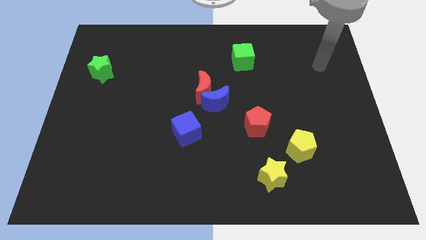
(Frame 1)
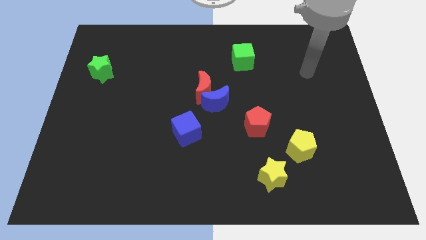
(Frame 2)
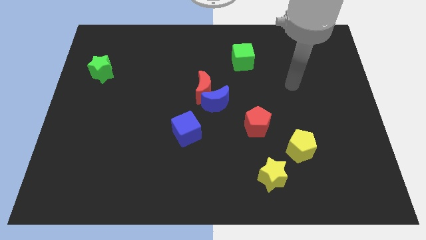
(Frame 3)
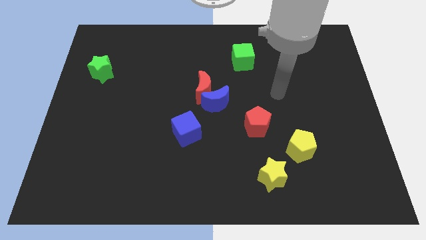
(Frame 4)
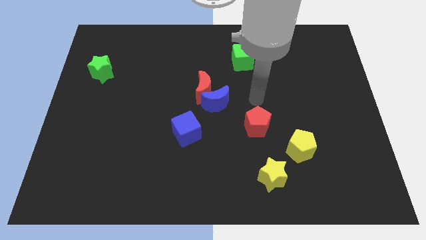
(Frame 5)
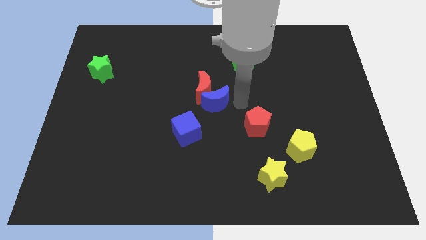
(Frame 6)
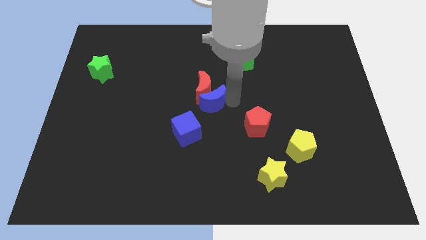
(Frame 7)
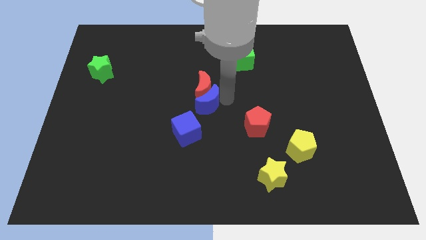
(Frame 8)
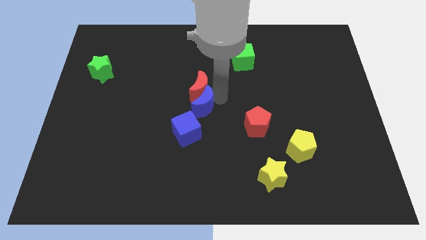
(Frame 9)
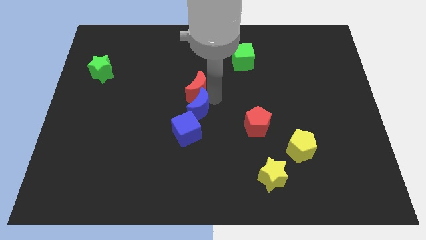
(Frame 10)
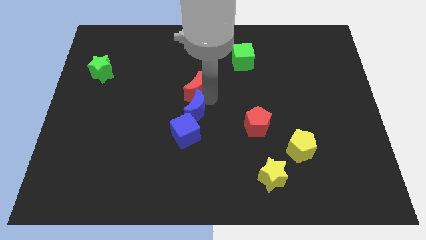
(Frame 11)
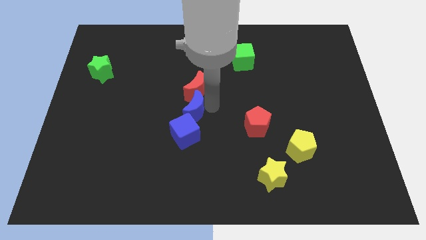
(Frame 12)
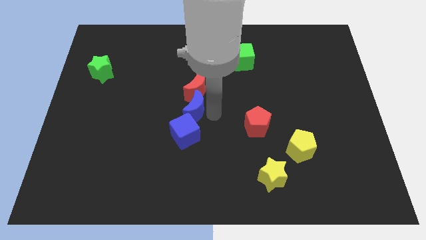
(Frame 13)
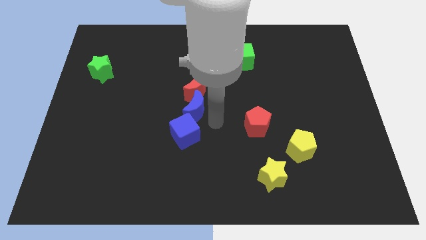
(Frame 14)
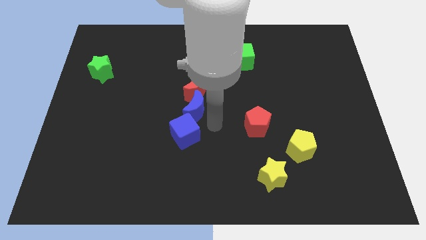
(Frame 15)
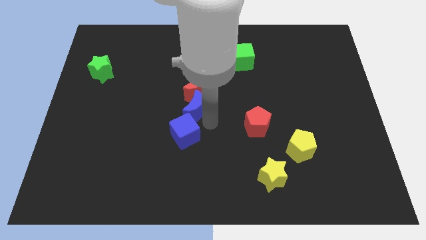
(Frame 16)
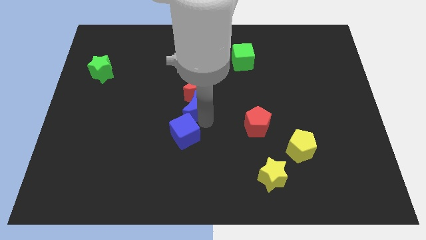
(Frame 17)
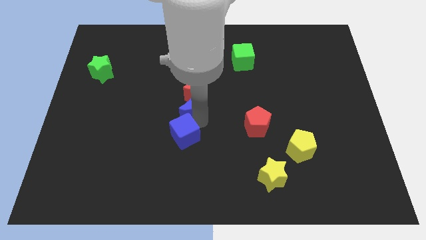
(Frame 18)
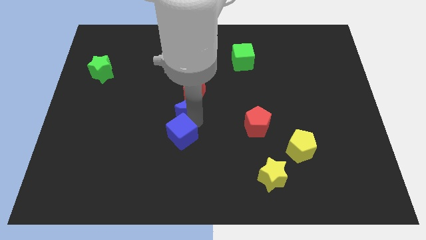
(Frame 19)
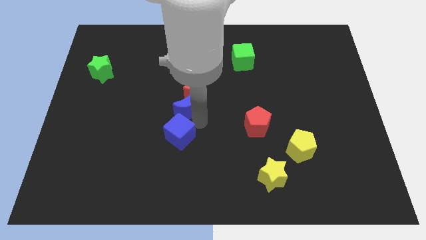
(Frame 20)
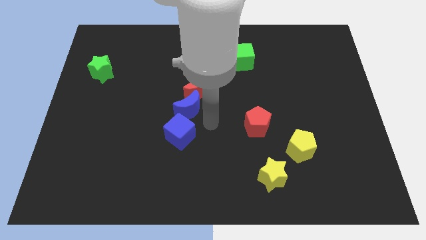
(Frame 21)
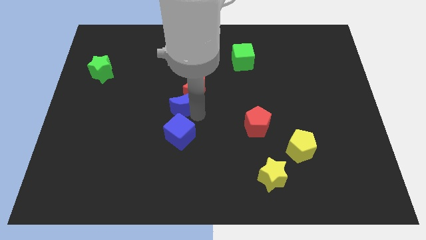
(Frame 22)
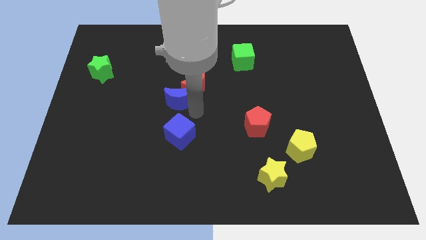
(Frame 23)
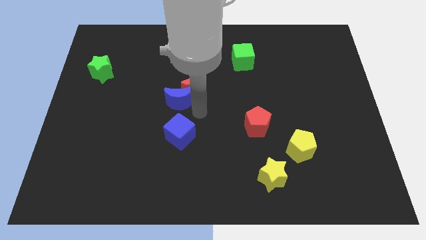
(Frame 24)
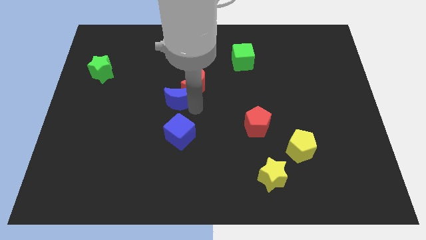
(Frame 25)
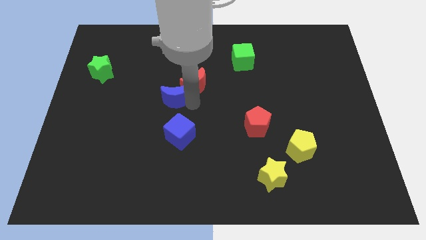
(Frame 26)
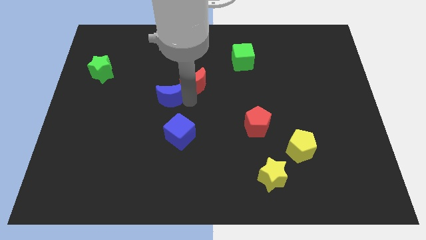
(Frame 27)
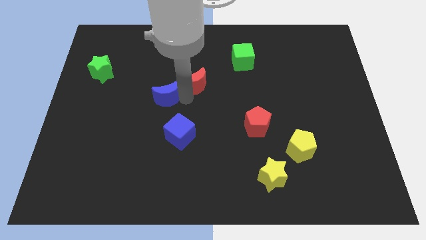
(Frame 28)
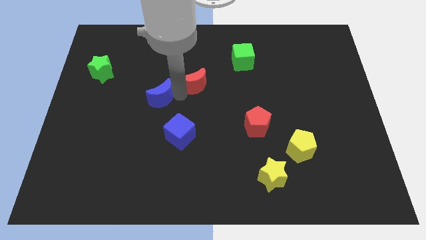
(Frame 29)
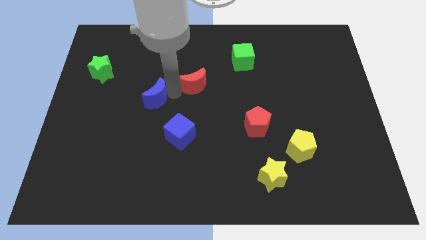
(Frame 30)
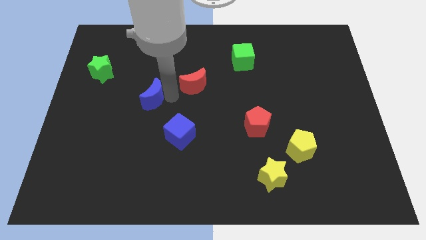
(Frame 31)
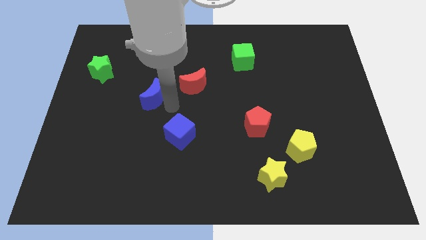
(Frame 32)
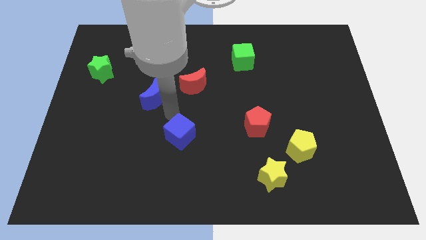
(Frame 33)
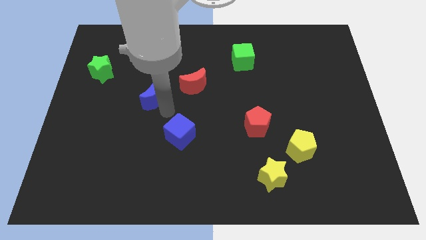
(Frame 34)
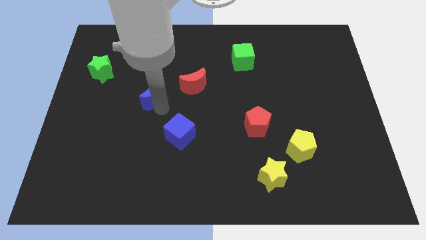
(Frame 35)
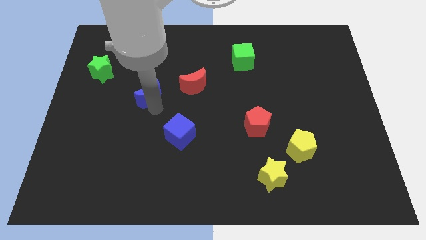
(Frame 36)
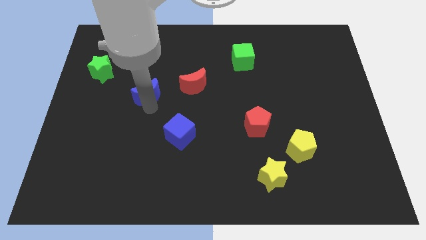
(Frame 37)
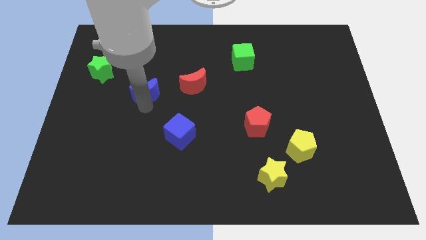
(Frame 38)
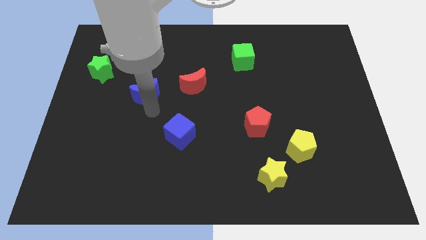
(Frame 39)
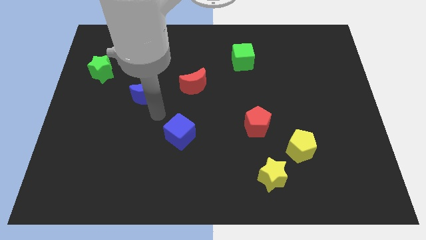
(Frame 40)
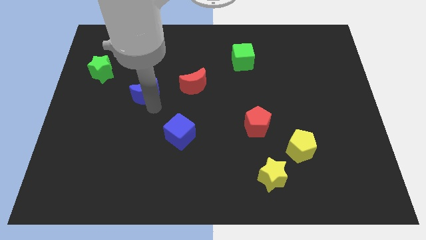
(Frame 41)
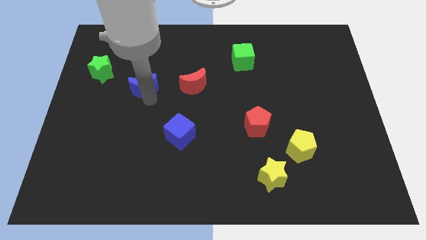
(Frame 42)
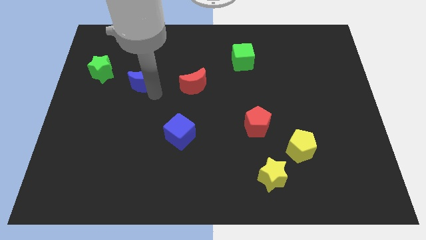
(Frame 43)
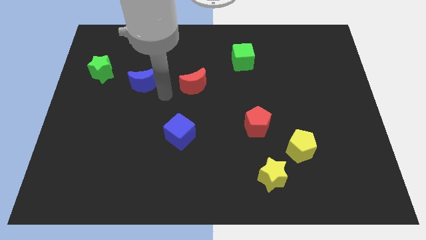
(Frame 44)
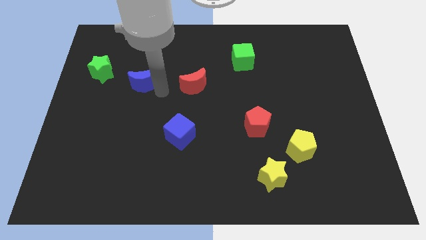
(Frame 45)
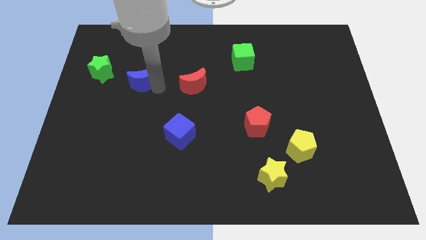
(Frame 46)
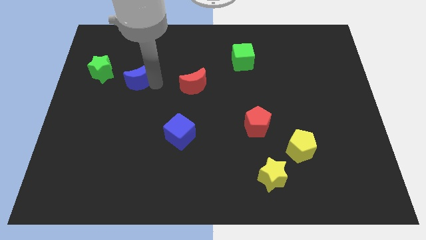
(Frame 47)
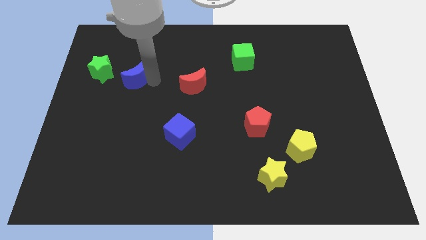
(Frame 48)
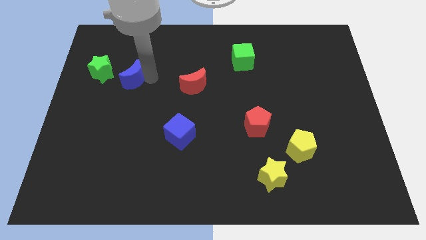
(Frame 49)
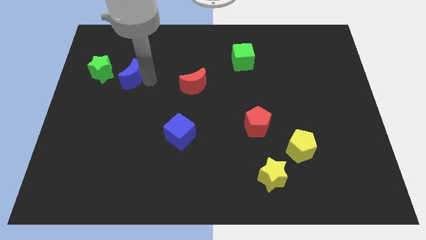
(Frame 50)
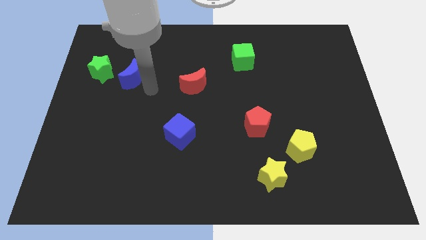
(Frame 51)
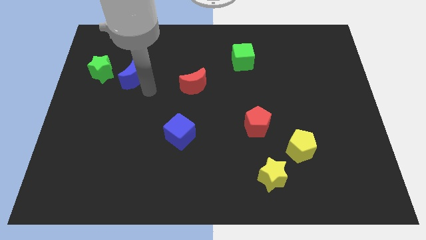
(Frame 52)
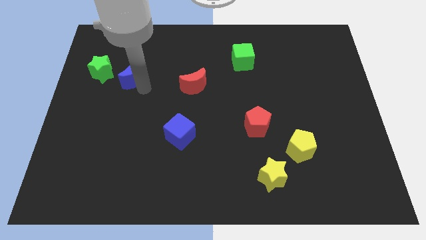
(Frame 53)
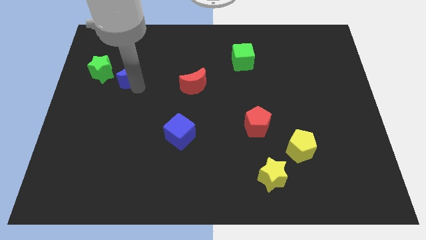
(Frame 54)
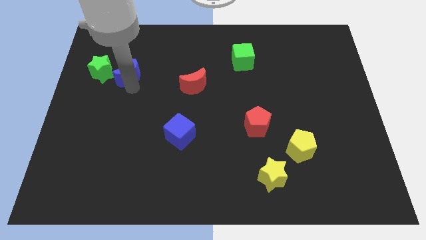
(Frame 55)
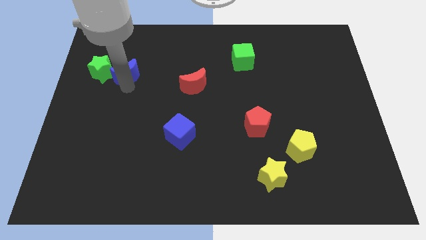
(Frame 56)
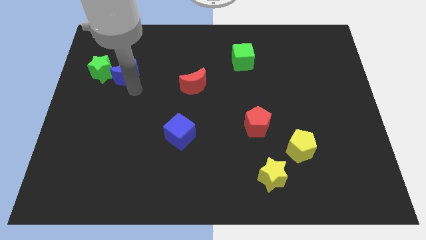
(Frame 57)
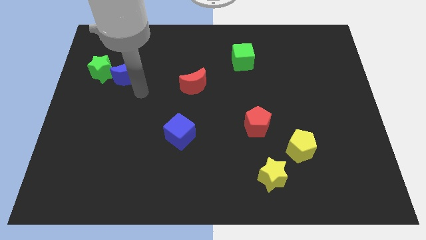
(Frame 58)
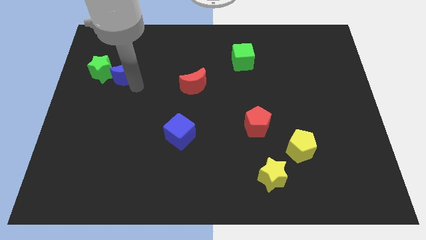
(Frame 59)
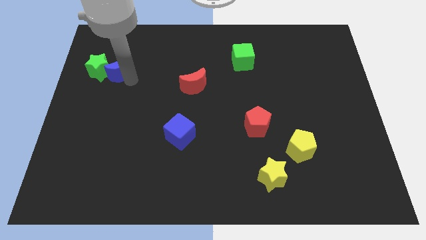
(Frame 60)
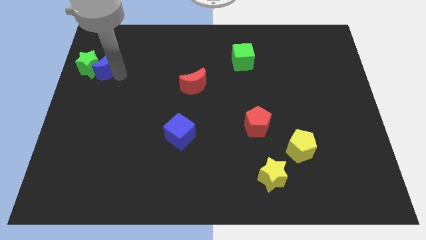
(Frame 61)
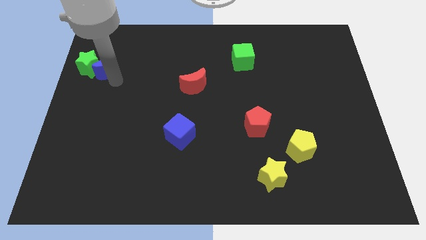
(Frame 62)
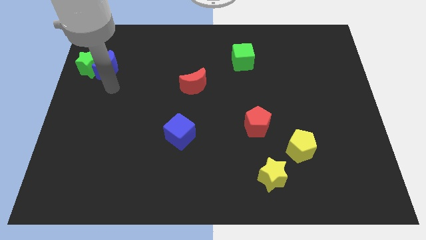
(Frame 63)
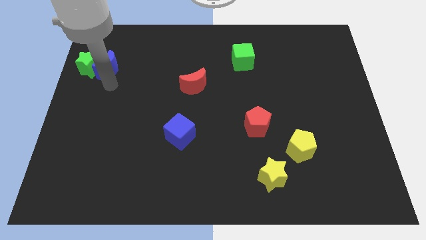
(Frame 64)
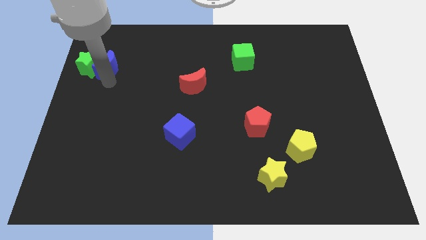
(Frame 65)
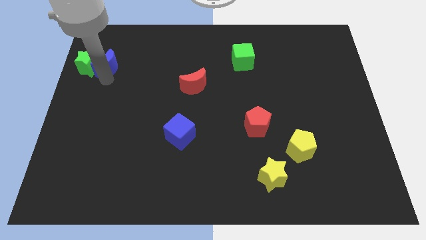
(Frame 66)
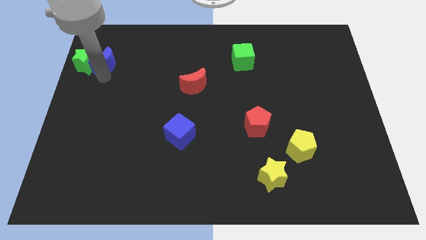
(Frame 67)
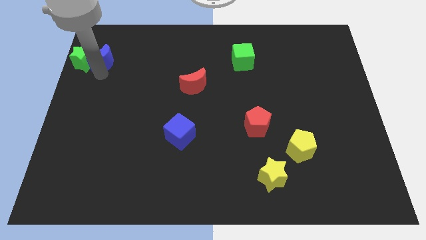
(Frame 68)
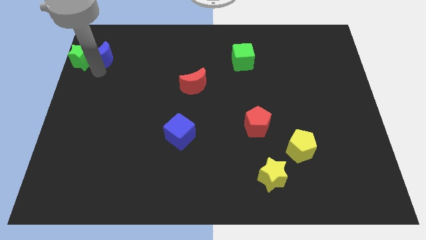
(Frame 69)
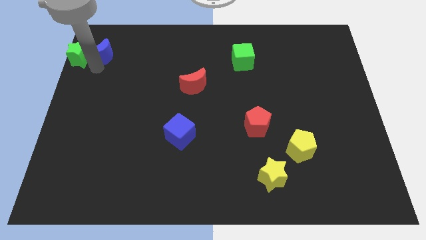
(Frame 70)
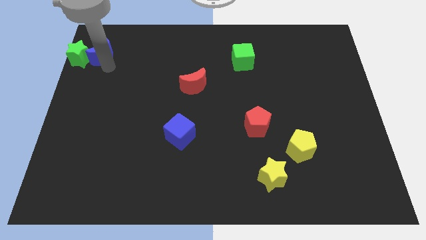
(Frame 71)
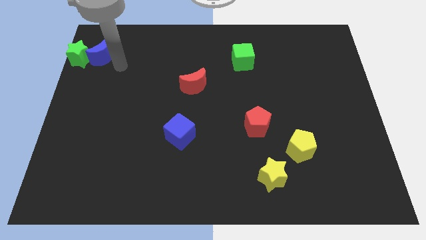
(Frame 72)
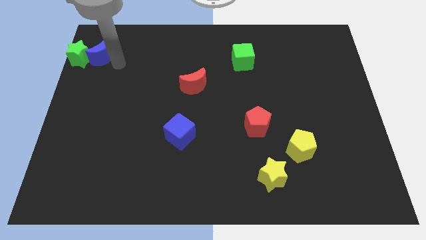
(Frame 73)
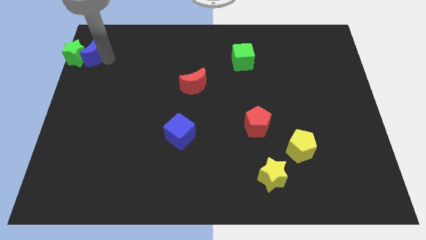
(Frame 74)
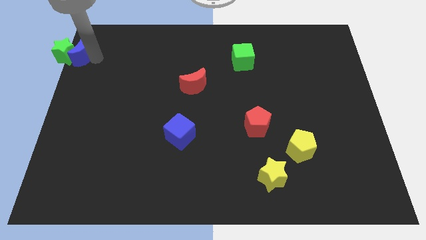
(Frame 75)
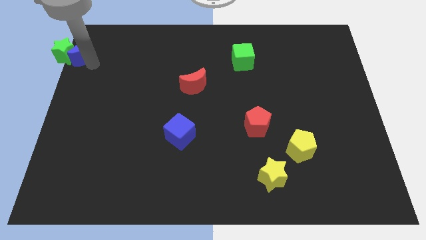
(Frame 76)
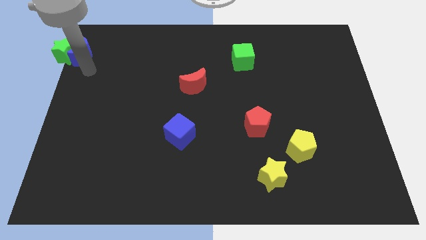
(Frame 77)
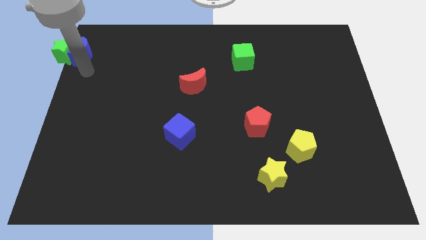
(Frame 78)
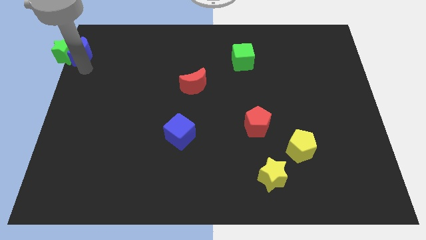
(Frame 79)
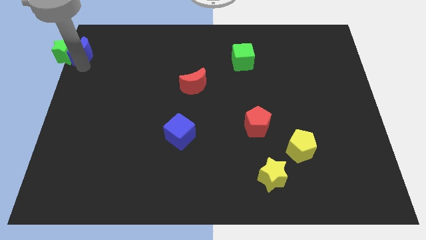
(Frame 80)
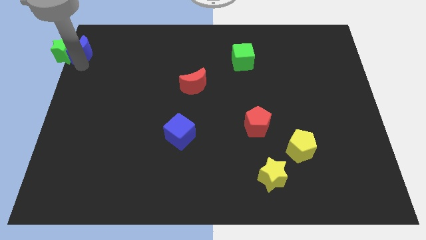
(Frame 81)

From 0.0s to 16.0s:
slide the blue moon to the top left
